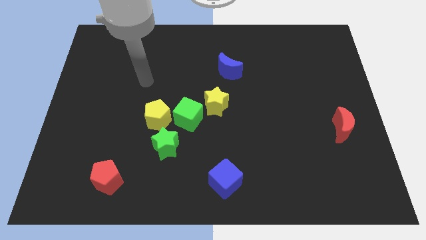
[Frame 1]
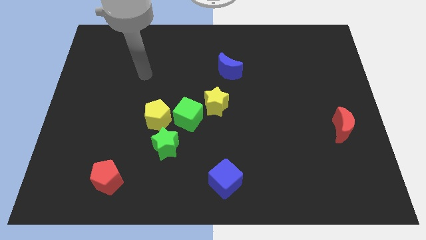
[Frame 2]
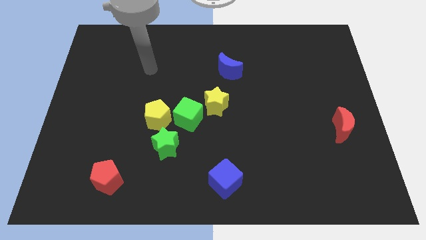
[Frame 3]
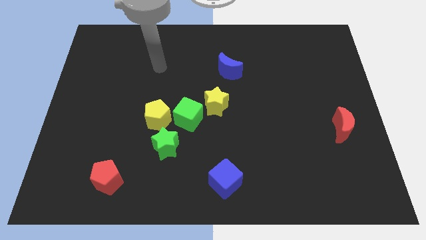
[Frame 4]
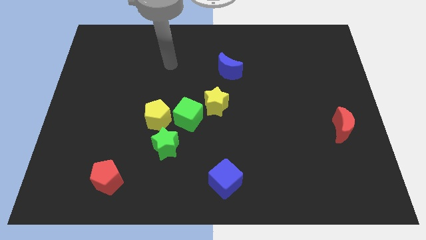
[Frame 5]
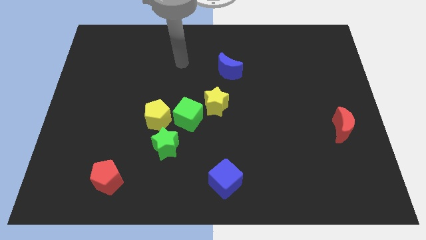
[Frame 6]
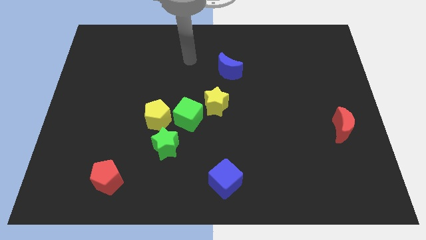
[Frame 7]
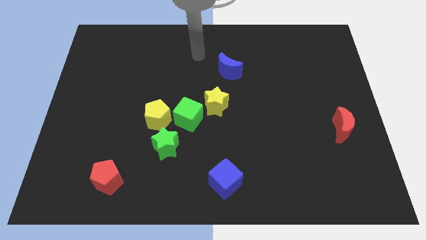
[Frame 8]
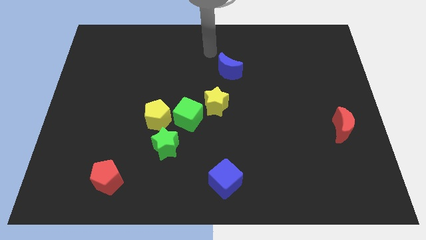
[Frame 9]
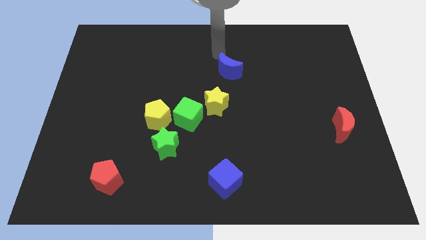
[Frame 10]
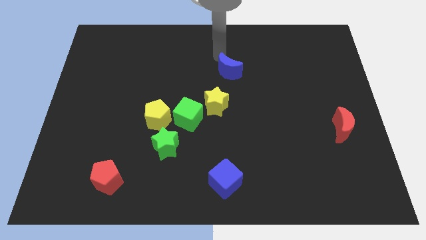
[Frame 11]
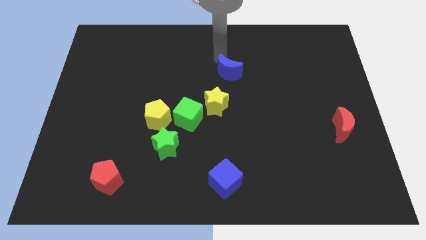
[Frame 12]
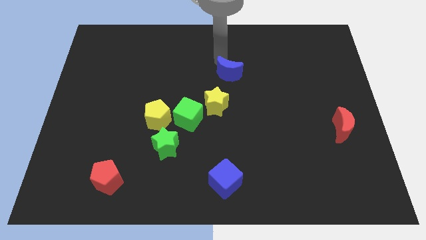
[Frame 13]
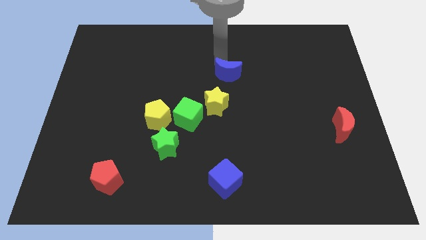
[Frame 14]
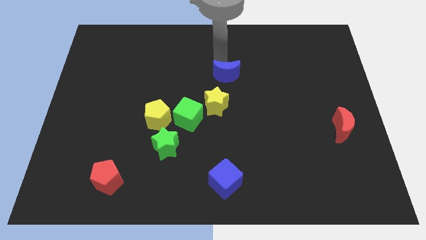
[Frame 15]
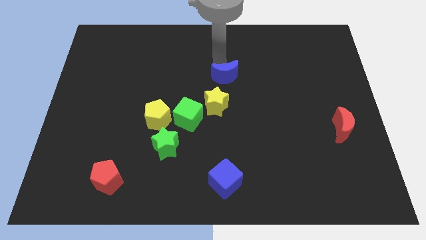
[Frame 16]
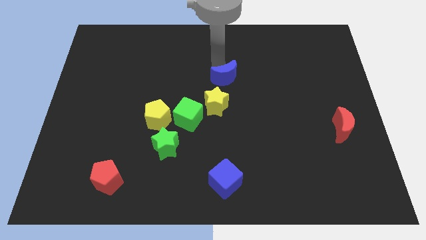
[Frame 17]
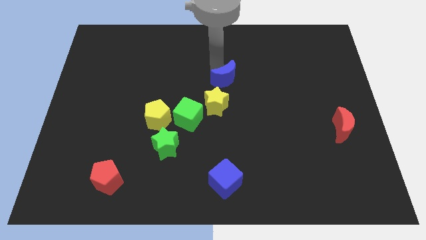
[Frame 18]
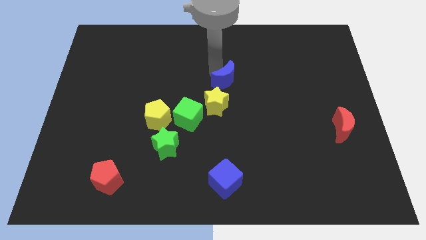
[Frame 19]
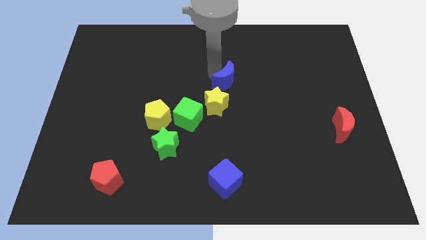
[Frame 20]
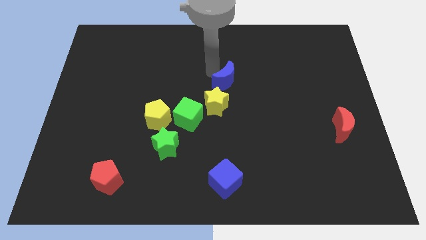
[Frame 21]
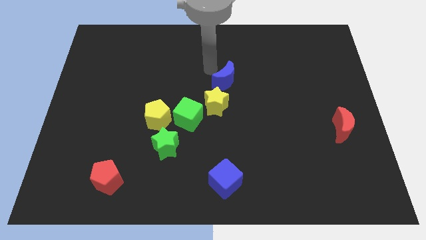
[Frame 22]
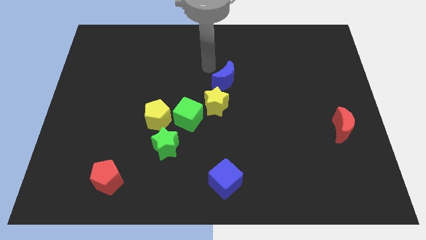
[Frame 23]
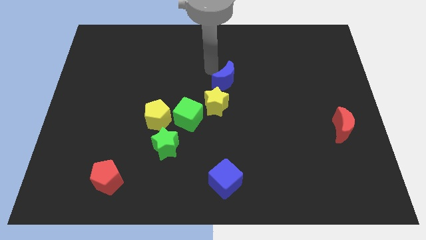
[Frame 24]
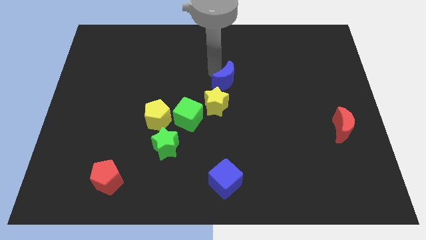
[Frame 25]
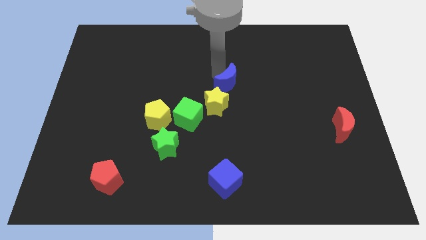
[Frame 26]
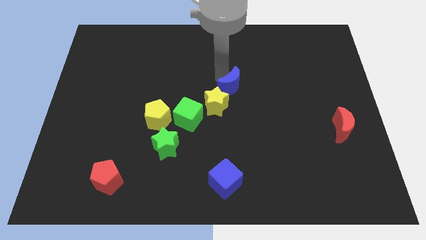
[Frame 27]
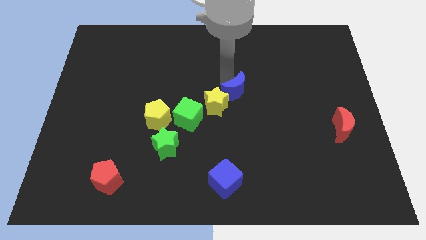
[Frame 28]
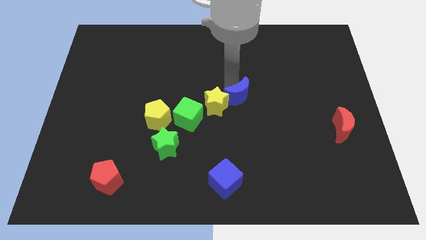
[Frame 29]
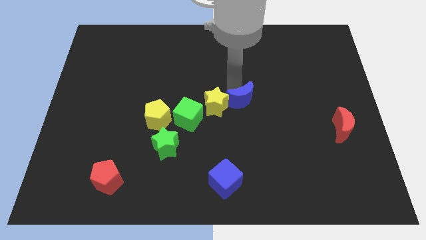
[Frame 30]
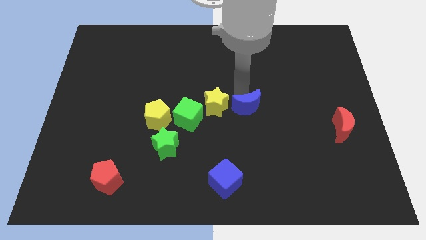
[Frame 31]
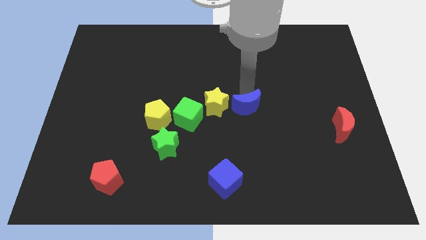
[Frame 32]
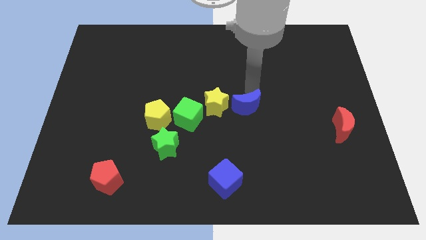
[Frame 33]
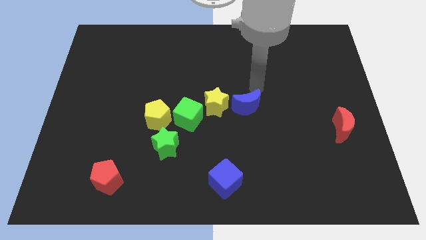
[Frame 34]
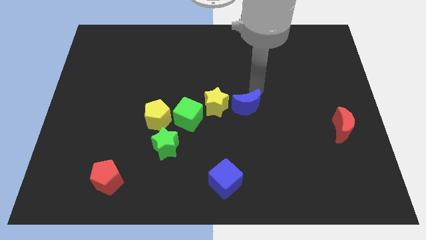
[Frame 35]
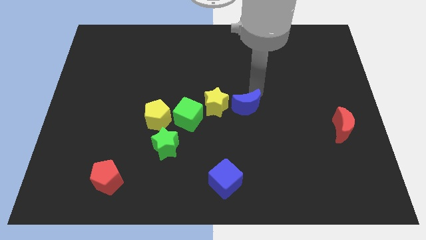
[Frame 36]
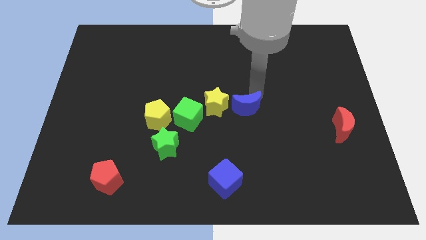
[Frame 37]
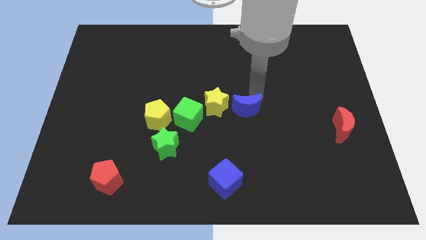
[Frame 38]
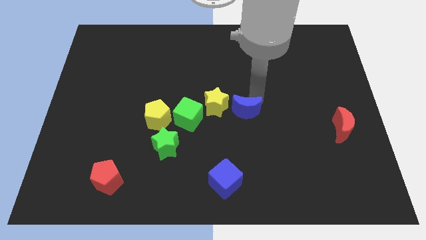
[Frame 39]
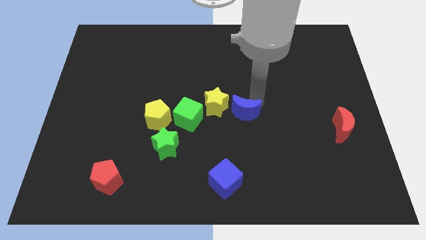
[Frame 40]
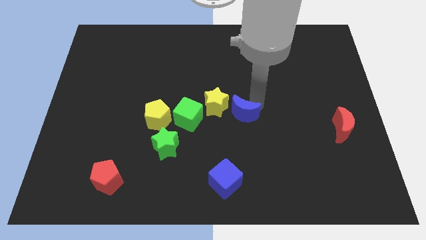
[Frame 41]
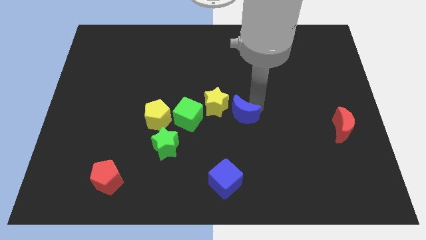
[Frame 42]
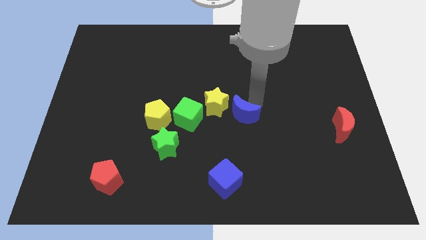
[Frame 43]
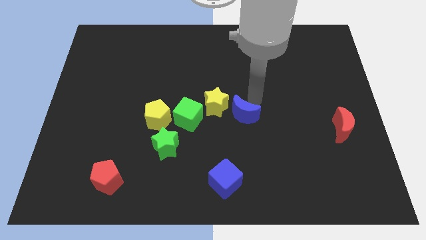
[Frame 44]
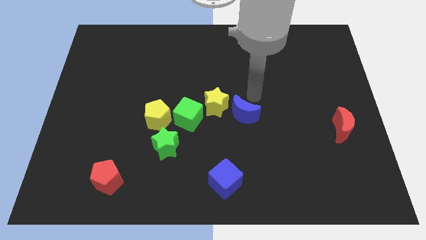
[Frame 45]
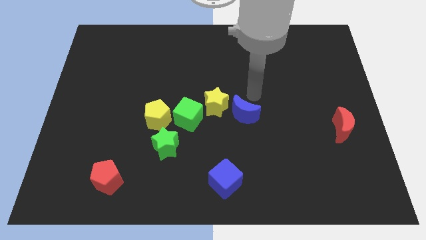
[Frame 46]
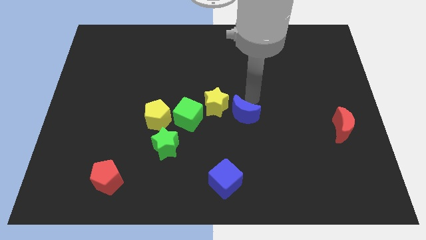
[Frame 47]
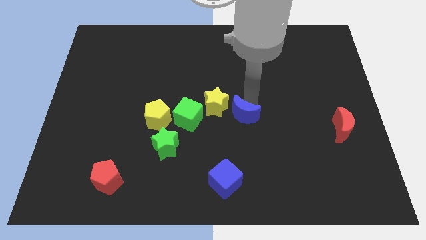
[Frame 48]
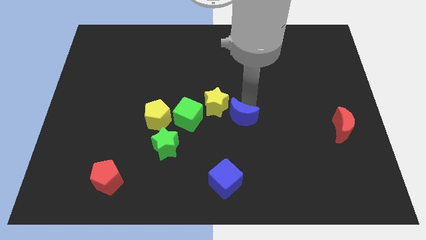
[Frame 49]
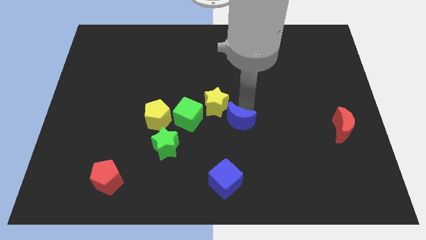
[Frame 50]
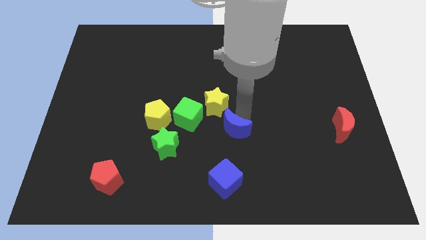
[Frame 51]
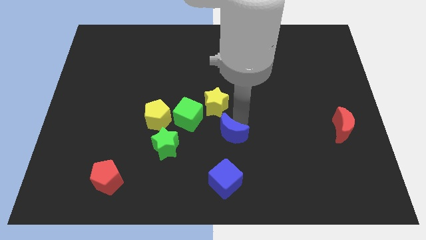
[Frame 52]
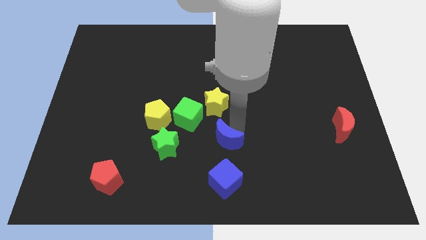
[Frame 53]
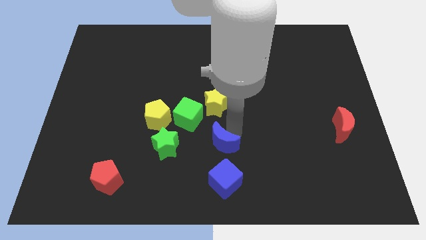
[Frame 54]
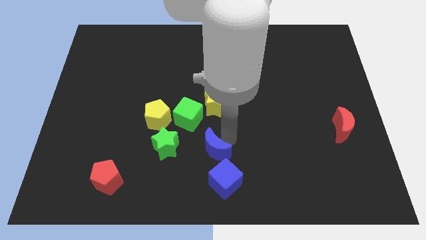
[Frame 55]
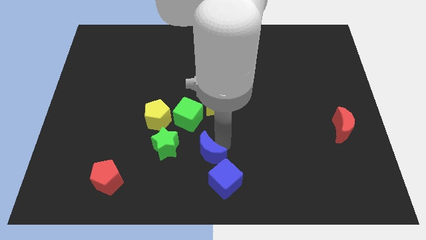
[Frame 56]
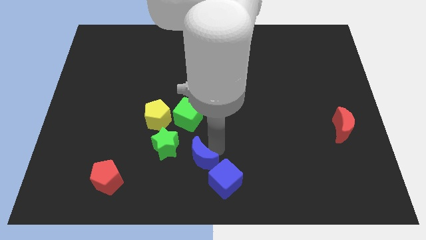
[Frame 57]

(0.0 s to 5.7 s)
push the blue moon to the bottom right side of the green star

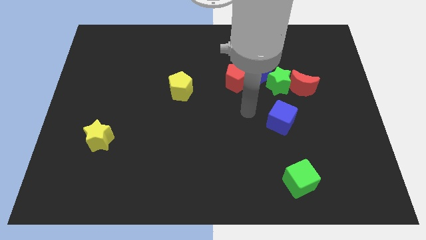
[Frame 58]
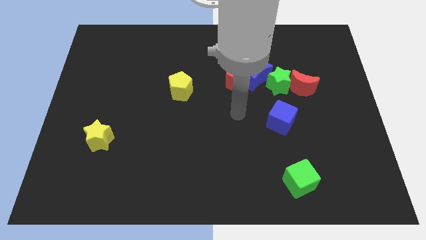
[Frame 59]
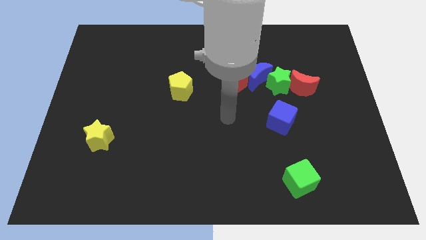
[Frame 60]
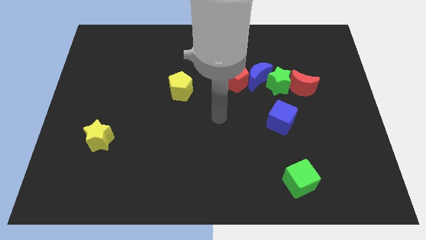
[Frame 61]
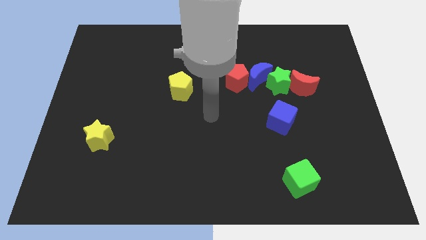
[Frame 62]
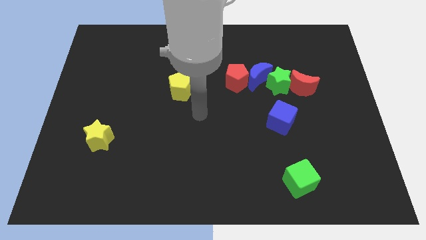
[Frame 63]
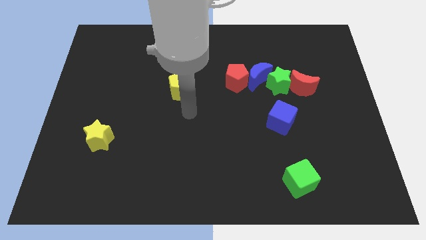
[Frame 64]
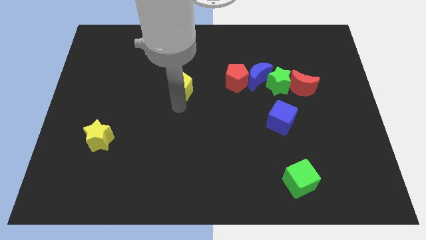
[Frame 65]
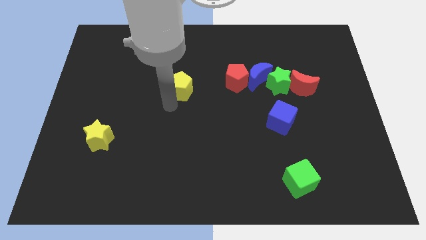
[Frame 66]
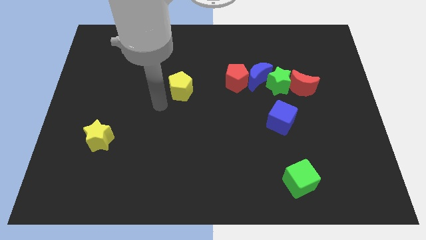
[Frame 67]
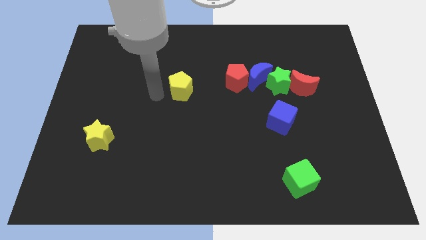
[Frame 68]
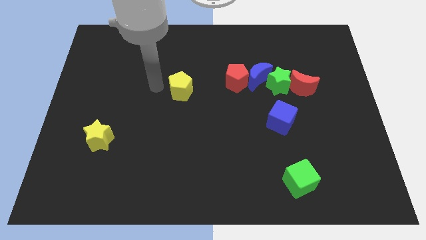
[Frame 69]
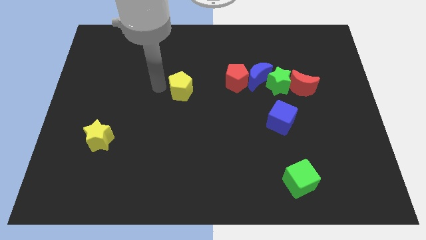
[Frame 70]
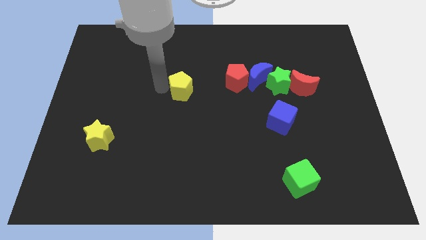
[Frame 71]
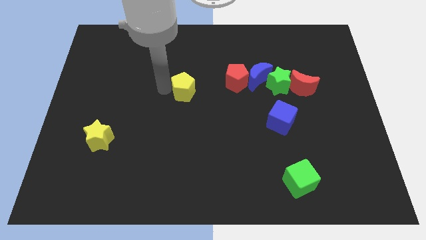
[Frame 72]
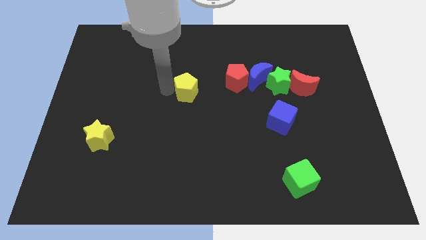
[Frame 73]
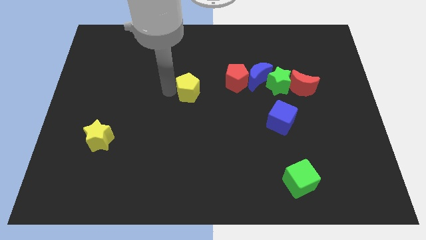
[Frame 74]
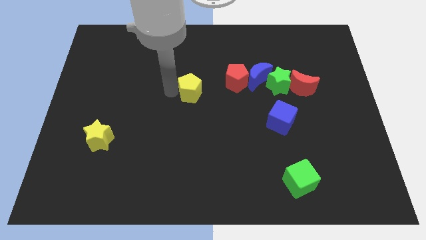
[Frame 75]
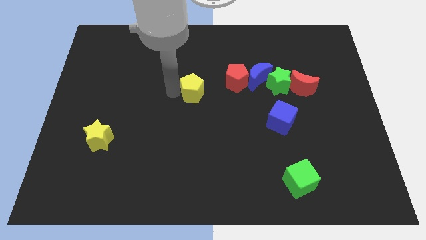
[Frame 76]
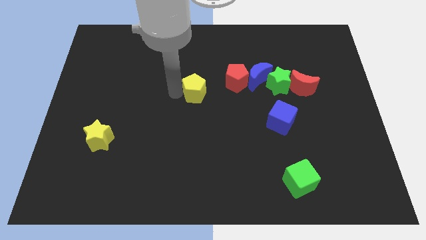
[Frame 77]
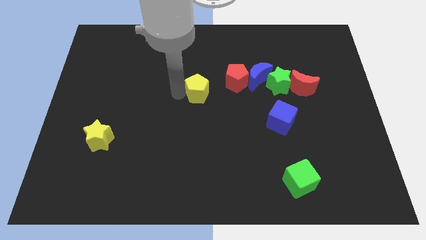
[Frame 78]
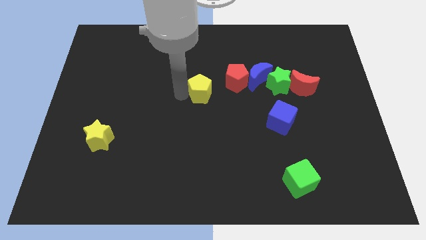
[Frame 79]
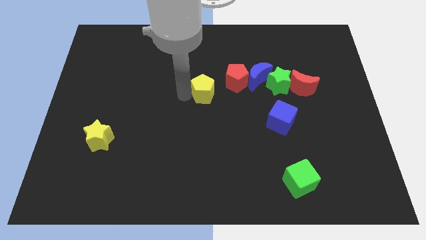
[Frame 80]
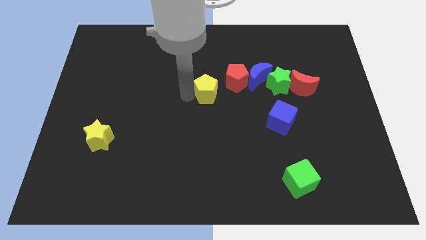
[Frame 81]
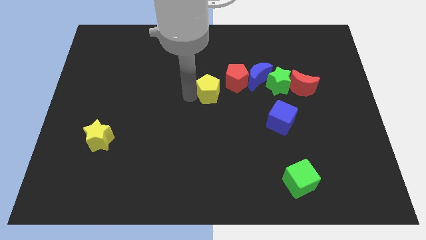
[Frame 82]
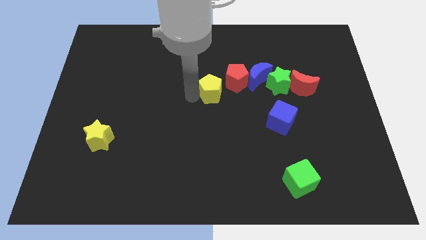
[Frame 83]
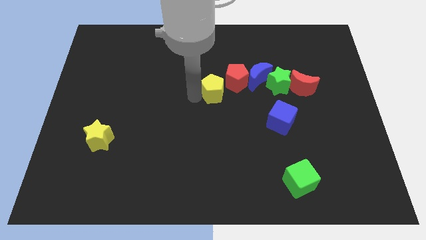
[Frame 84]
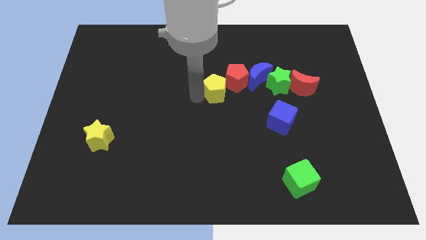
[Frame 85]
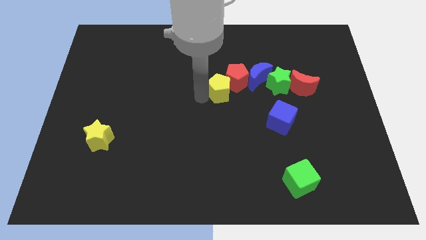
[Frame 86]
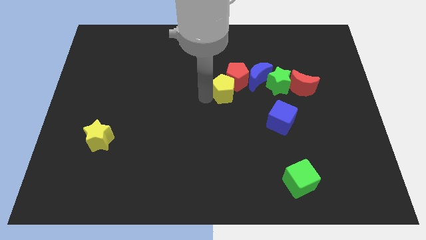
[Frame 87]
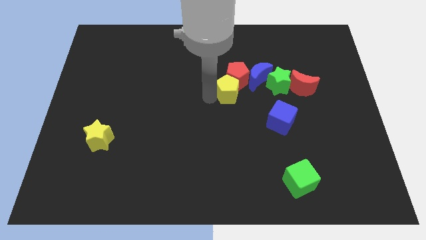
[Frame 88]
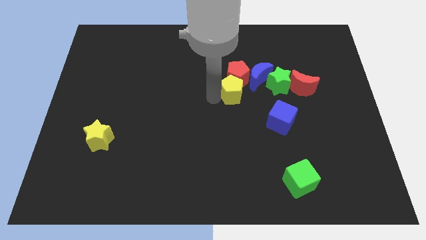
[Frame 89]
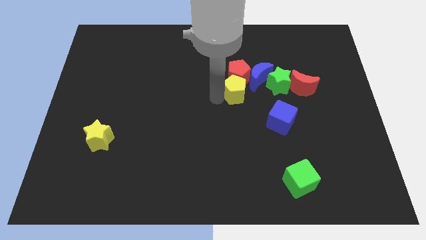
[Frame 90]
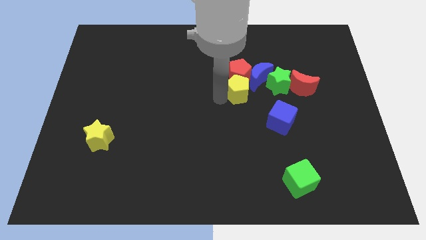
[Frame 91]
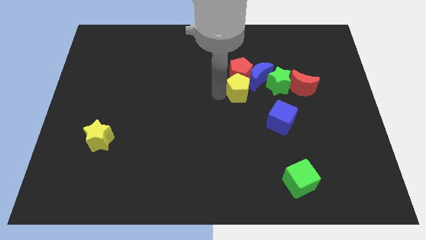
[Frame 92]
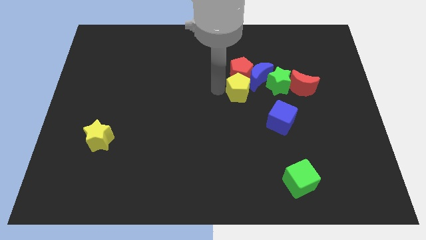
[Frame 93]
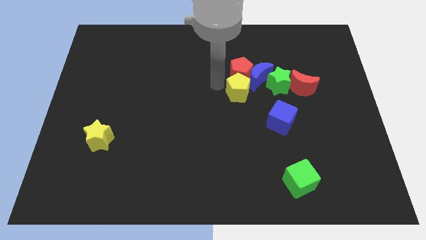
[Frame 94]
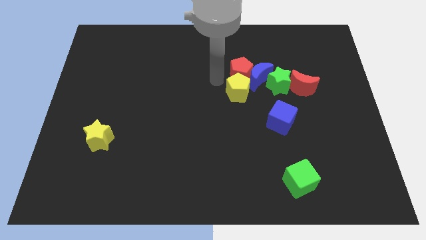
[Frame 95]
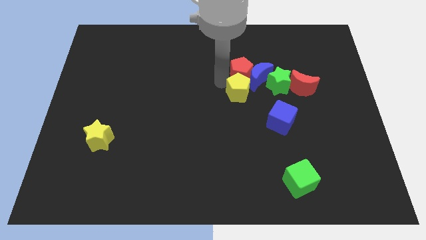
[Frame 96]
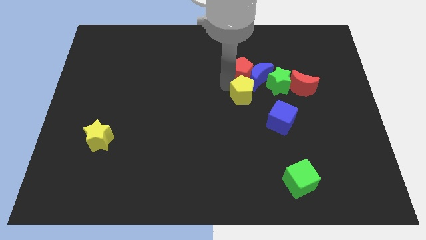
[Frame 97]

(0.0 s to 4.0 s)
put the yellow pentagon to the bottom left side of the green star
